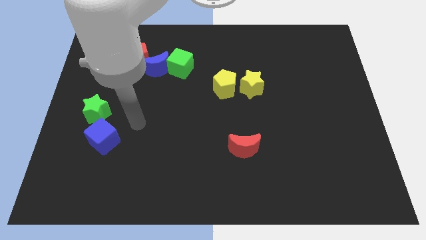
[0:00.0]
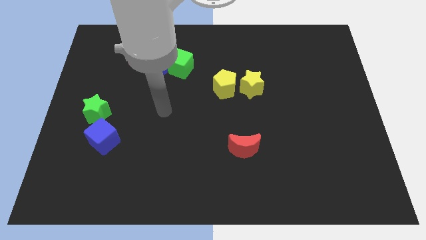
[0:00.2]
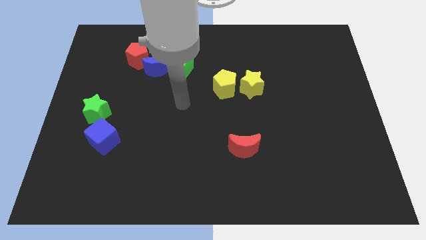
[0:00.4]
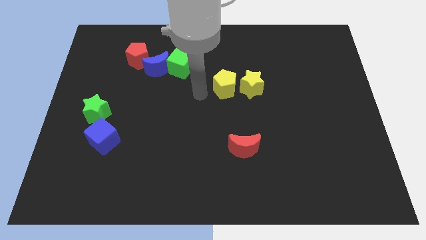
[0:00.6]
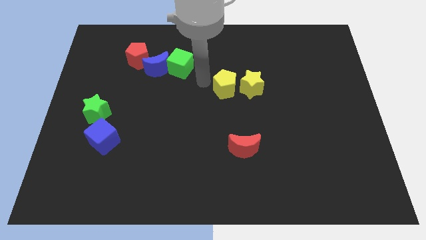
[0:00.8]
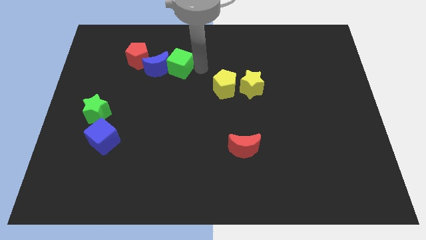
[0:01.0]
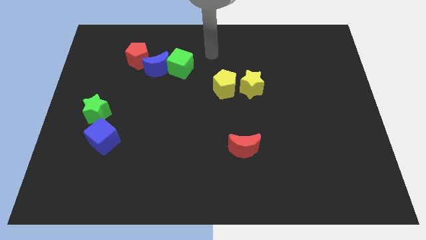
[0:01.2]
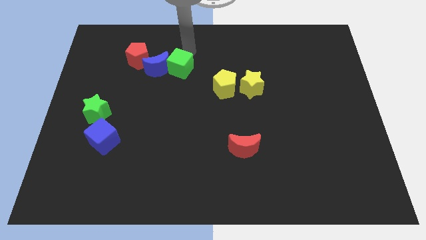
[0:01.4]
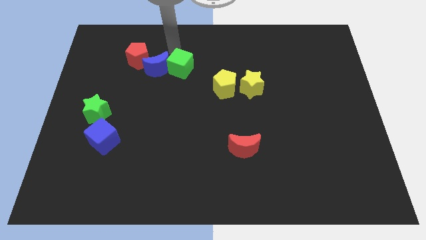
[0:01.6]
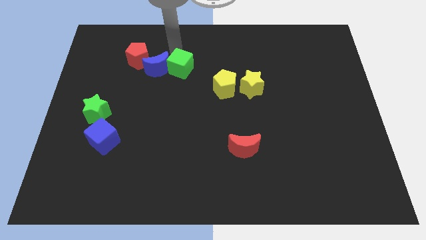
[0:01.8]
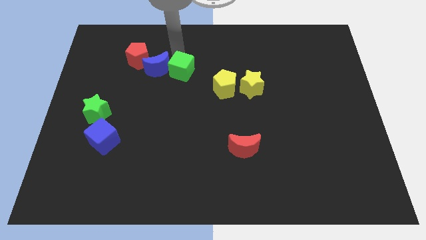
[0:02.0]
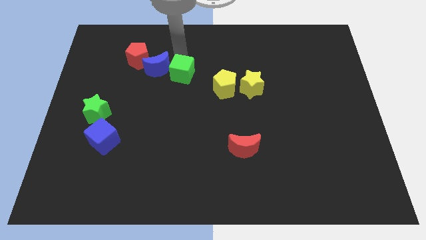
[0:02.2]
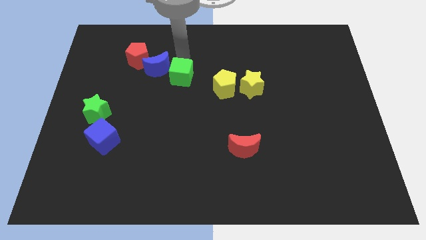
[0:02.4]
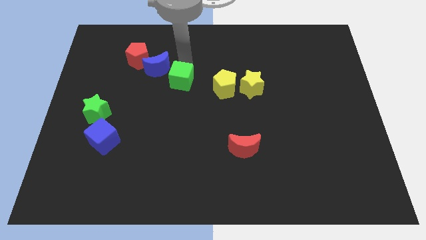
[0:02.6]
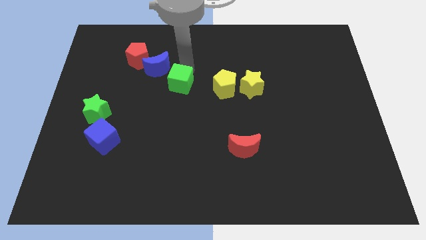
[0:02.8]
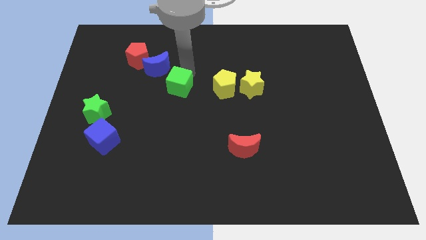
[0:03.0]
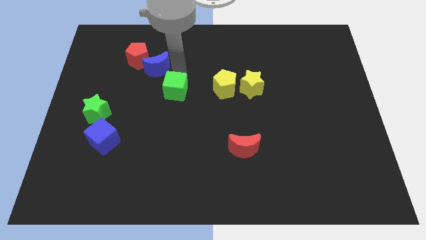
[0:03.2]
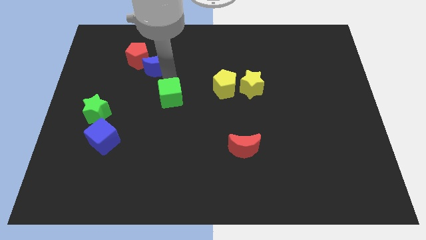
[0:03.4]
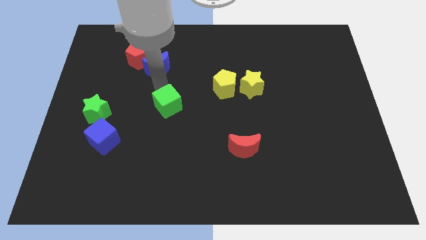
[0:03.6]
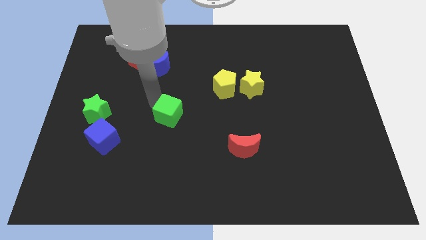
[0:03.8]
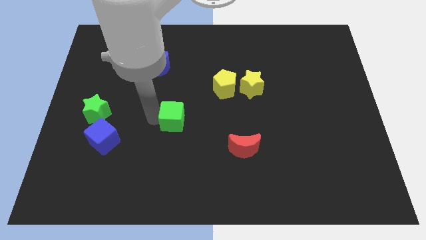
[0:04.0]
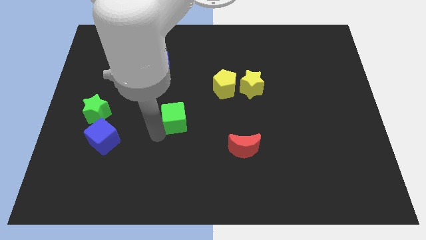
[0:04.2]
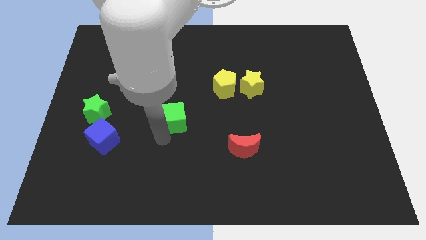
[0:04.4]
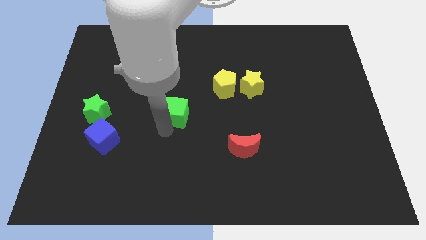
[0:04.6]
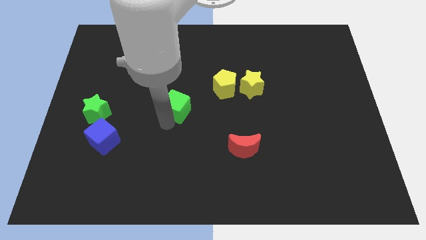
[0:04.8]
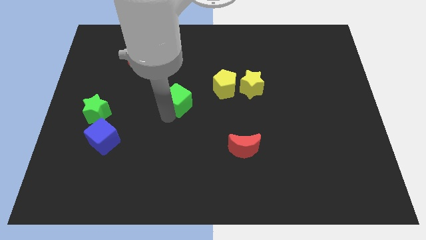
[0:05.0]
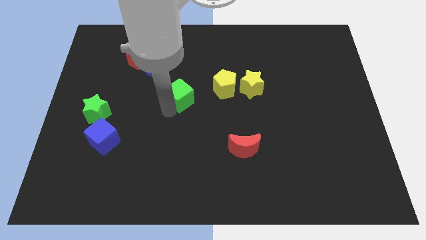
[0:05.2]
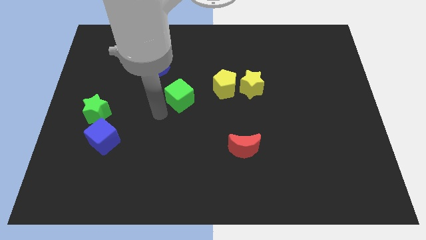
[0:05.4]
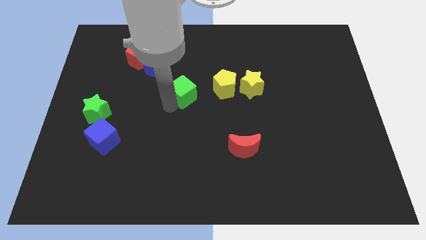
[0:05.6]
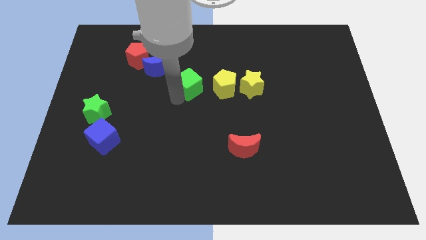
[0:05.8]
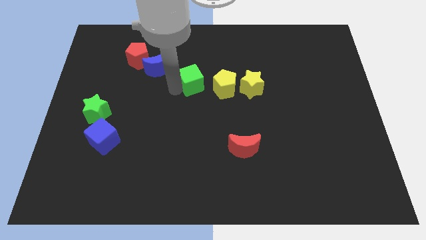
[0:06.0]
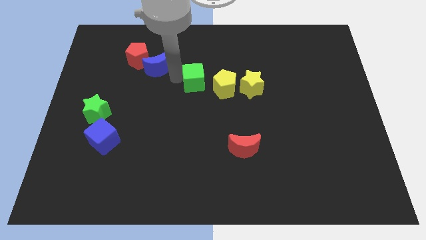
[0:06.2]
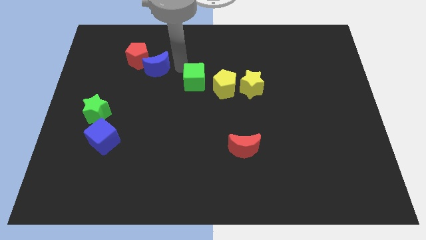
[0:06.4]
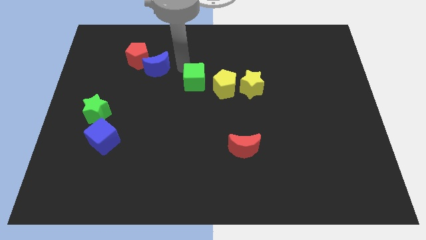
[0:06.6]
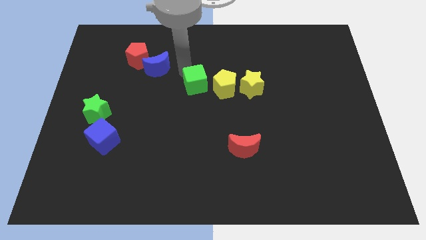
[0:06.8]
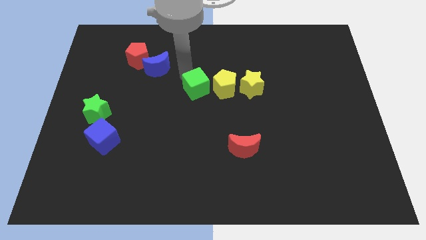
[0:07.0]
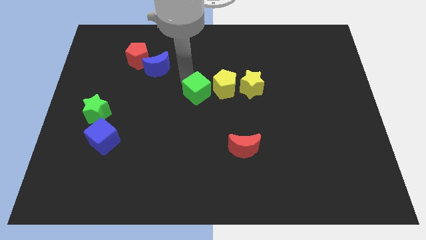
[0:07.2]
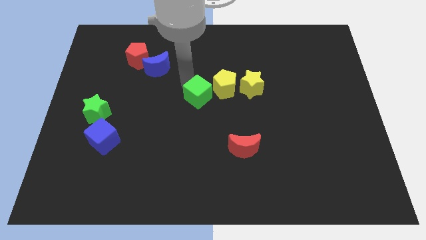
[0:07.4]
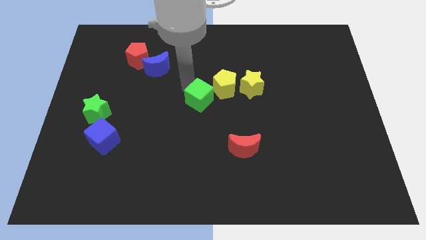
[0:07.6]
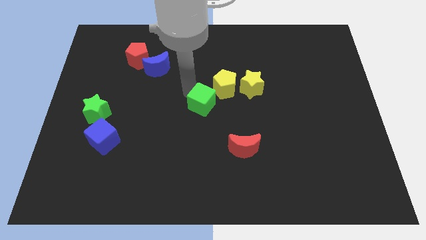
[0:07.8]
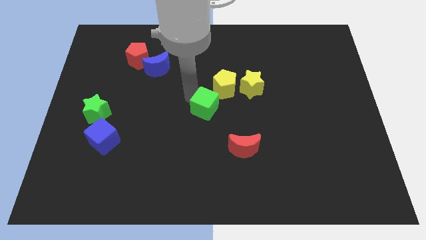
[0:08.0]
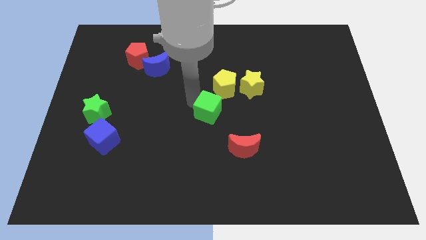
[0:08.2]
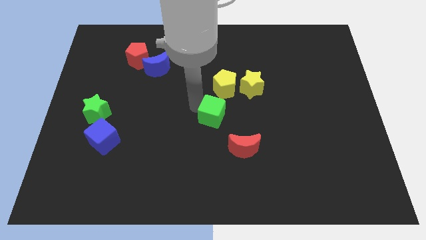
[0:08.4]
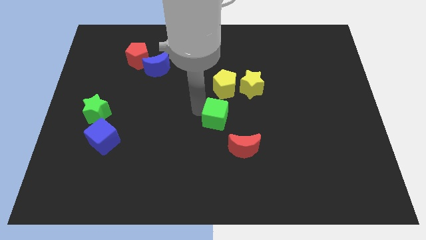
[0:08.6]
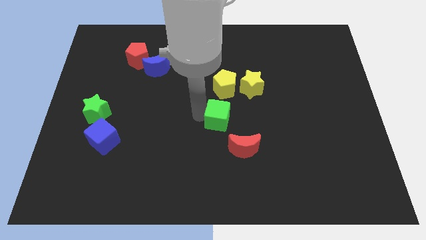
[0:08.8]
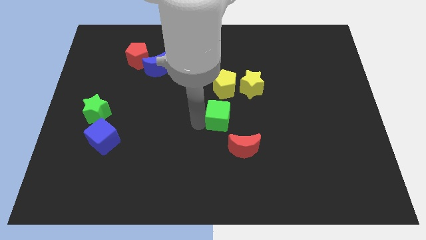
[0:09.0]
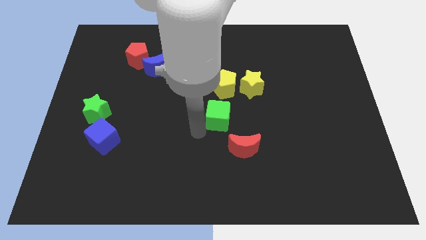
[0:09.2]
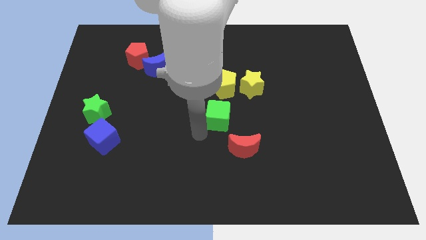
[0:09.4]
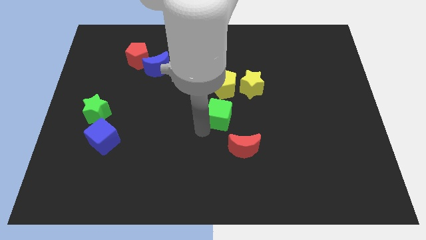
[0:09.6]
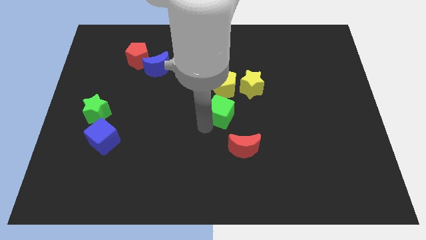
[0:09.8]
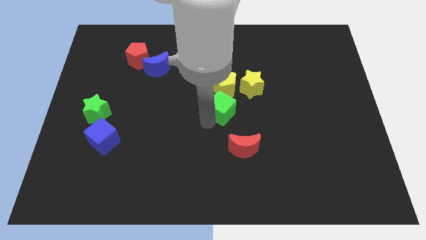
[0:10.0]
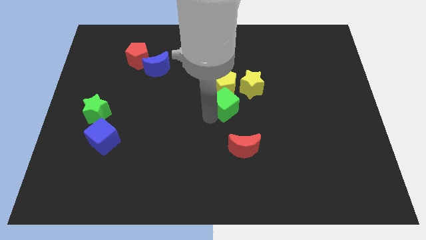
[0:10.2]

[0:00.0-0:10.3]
move the green cube diagonally down and to the right of the yellow pentagon

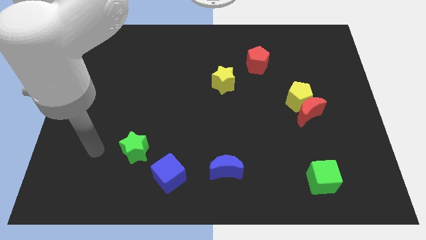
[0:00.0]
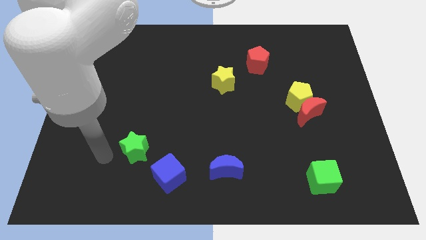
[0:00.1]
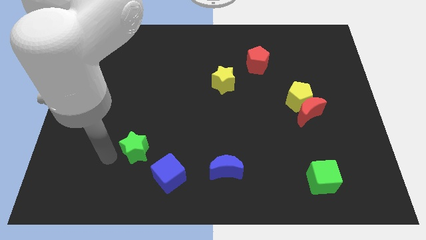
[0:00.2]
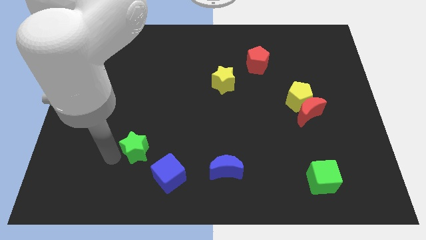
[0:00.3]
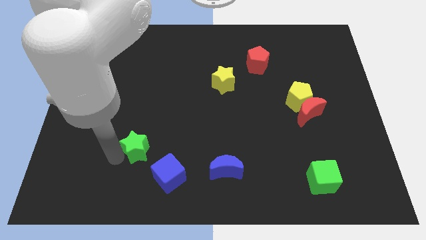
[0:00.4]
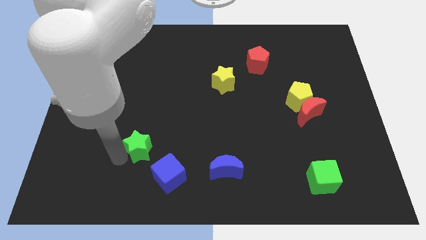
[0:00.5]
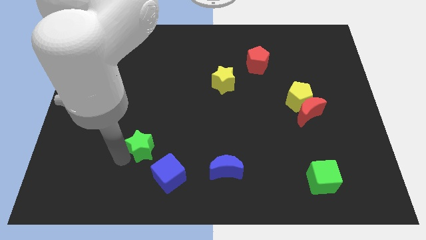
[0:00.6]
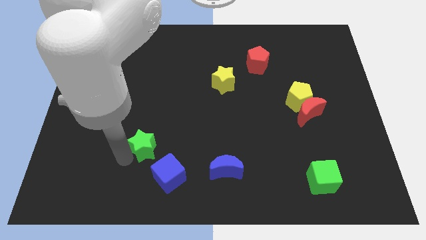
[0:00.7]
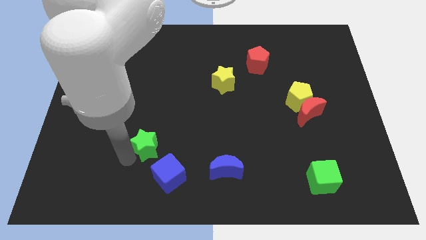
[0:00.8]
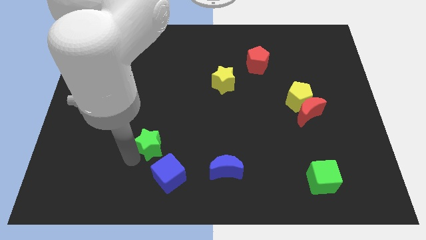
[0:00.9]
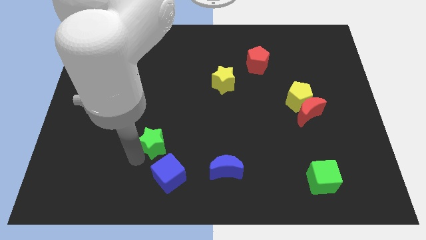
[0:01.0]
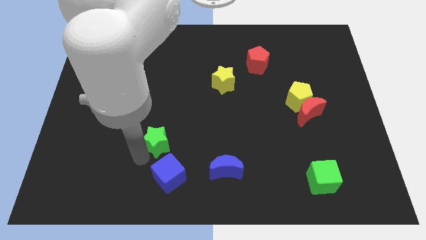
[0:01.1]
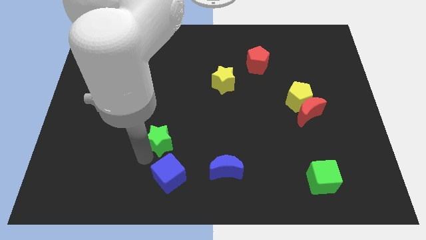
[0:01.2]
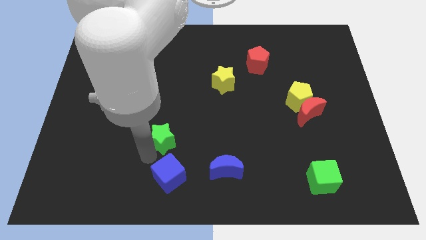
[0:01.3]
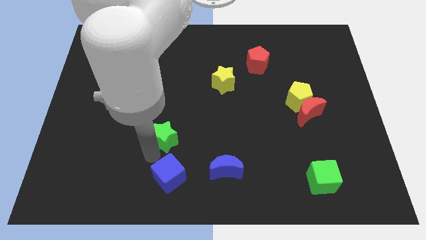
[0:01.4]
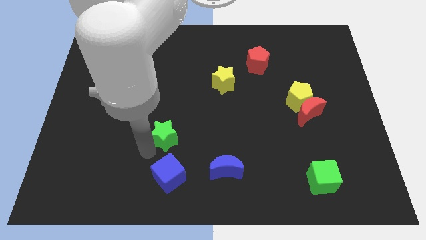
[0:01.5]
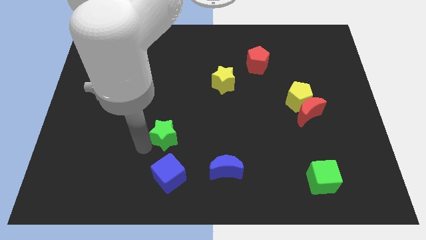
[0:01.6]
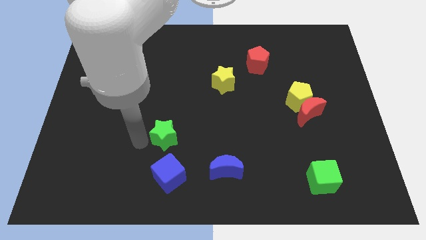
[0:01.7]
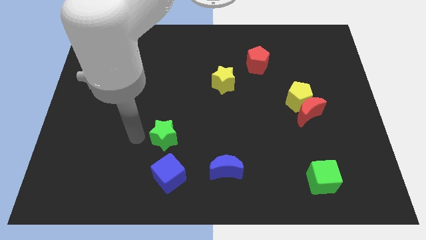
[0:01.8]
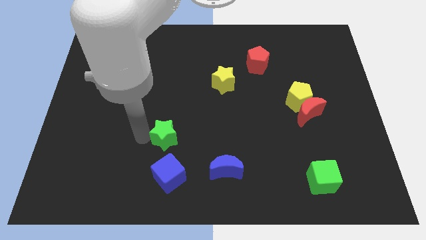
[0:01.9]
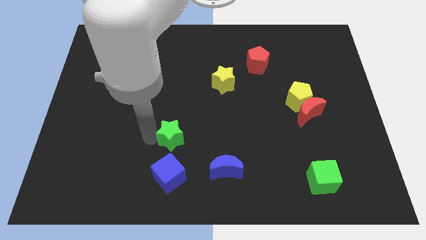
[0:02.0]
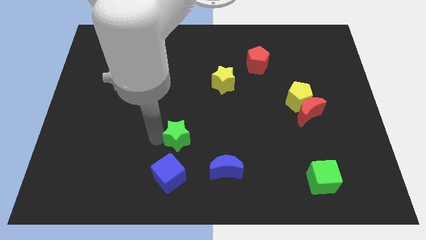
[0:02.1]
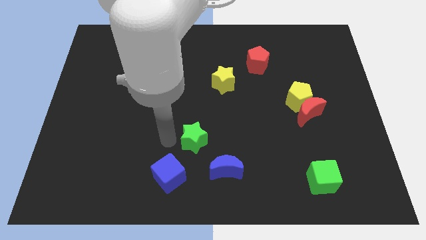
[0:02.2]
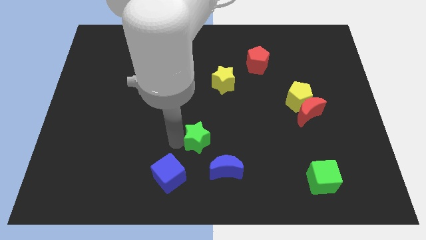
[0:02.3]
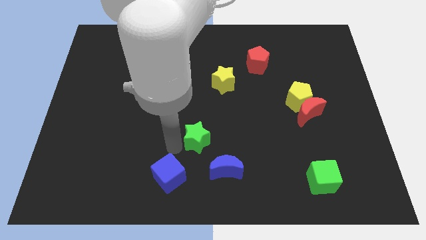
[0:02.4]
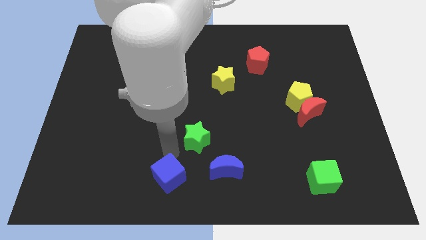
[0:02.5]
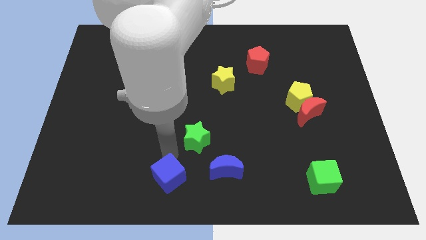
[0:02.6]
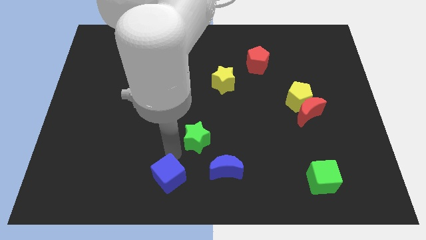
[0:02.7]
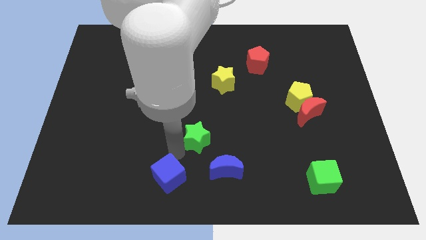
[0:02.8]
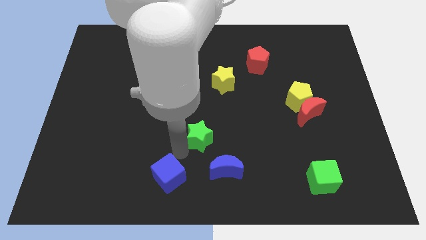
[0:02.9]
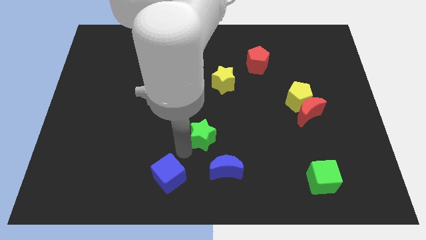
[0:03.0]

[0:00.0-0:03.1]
slide the green star above the blue moon
